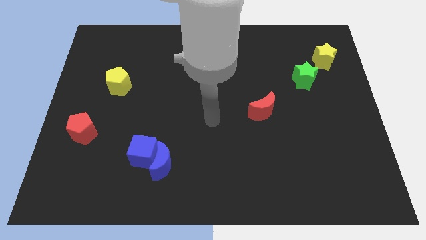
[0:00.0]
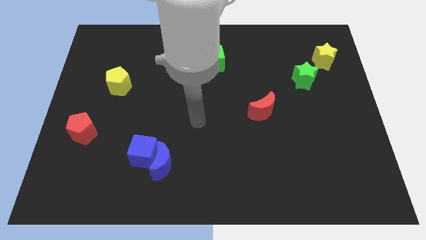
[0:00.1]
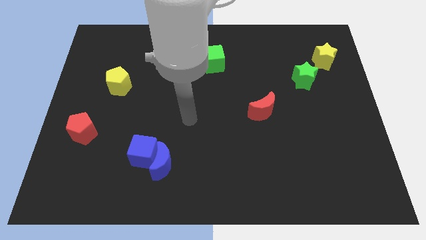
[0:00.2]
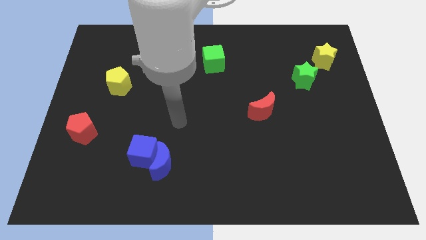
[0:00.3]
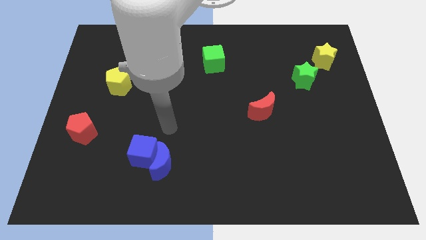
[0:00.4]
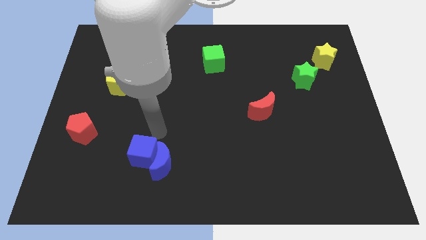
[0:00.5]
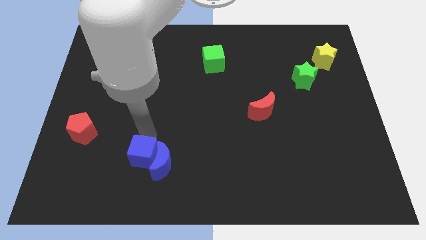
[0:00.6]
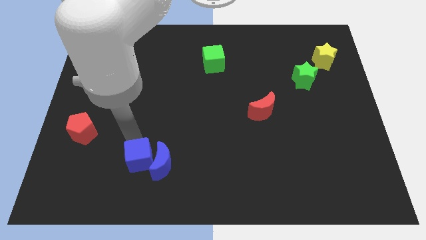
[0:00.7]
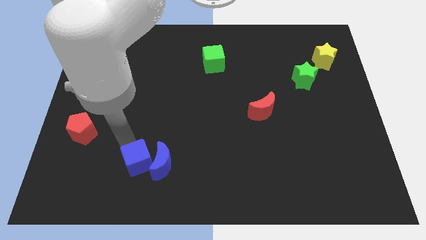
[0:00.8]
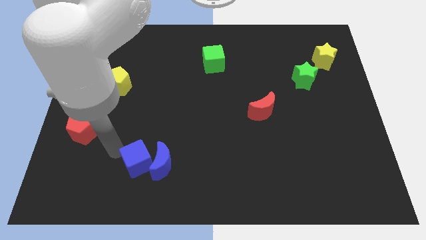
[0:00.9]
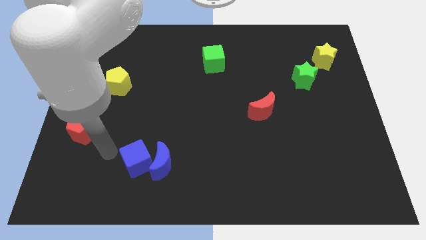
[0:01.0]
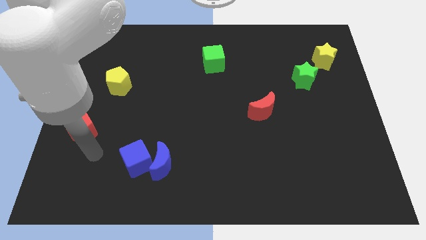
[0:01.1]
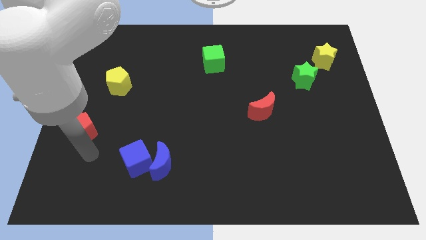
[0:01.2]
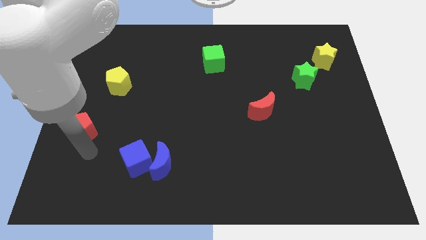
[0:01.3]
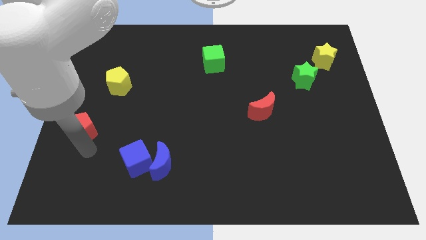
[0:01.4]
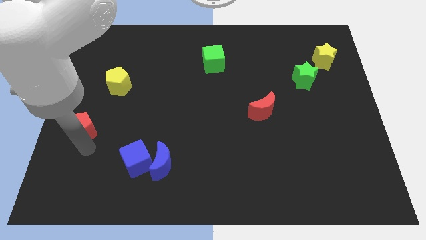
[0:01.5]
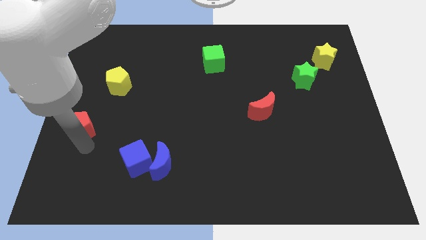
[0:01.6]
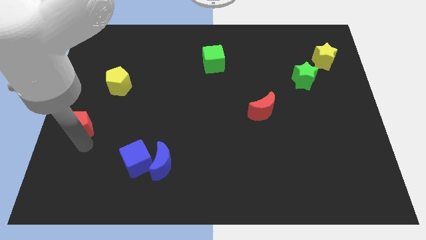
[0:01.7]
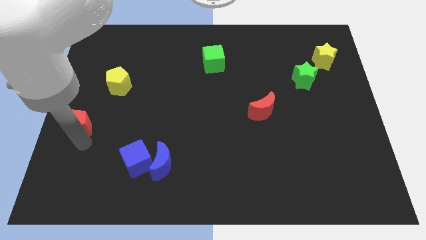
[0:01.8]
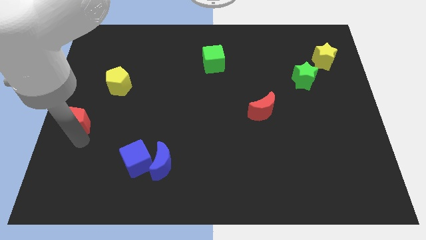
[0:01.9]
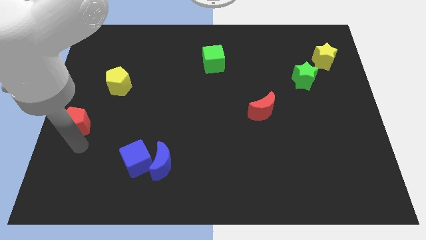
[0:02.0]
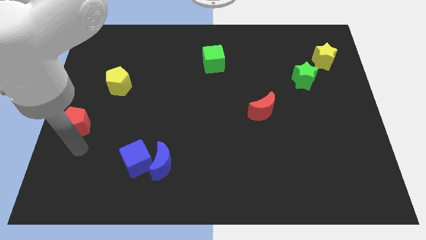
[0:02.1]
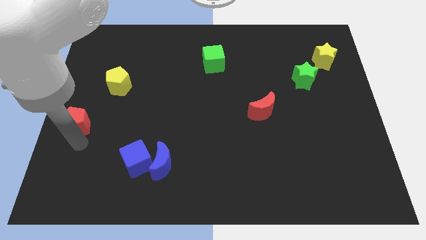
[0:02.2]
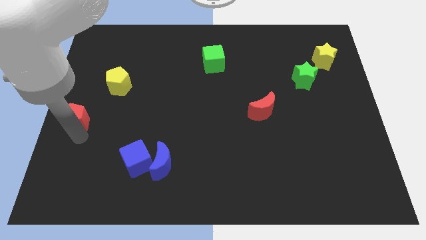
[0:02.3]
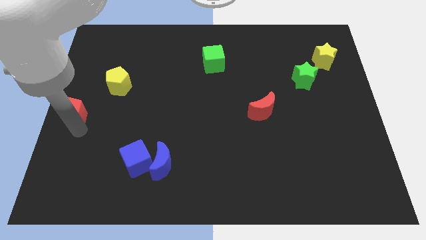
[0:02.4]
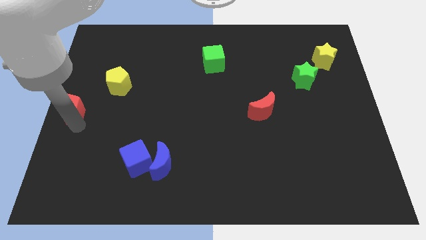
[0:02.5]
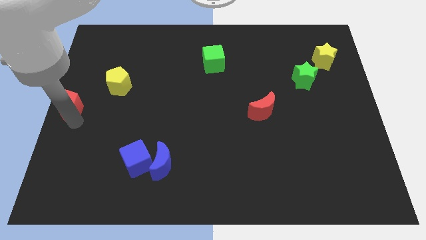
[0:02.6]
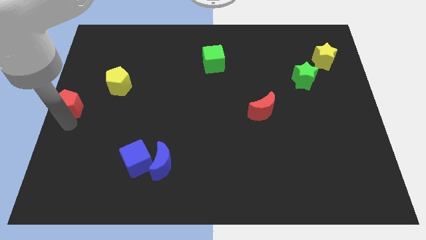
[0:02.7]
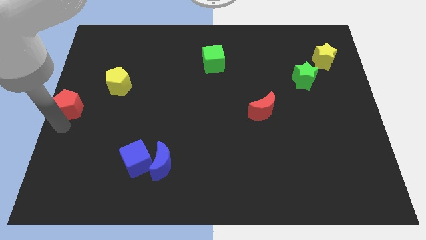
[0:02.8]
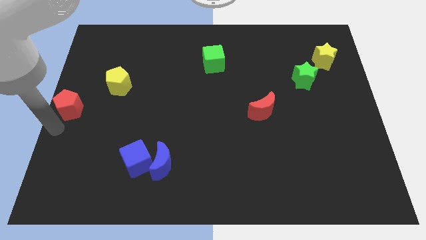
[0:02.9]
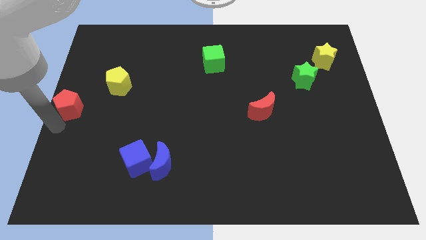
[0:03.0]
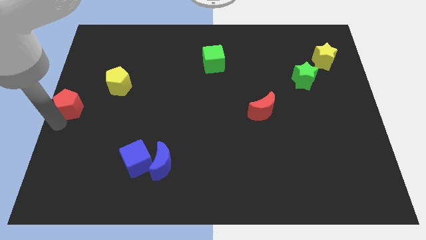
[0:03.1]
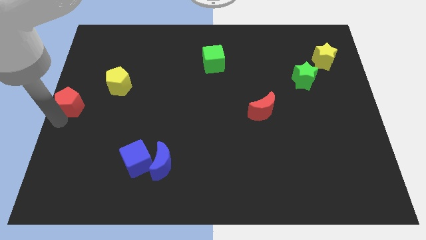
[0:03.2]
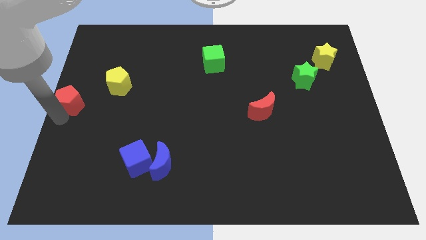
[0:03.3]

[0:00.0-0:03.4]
slightly slide the red pentagon upwards

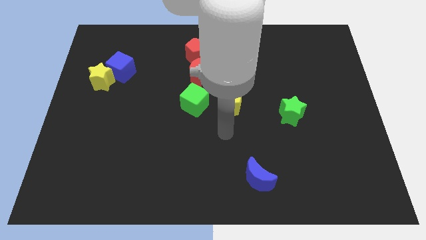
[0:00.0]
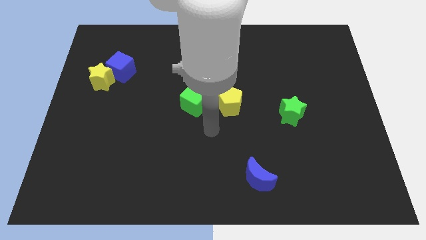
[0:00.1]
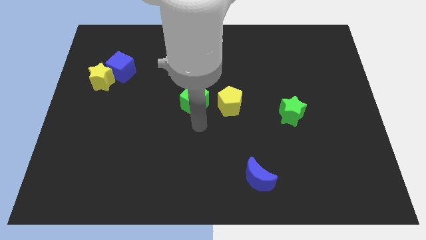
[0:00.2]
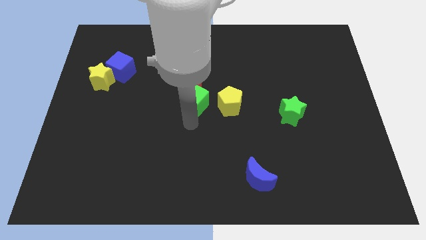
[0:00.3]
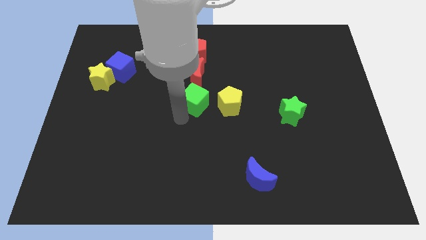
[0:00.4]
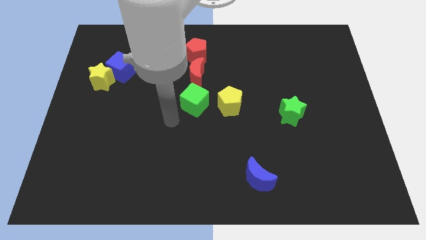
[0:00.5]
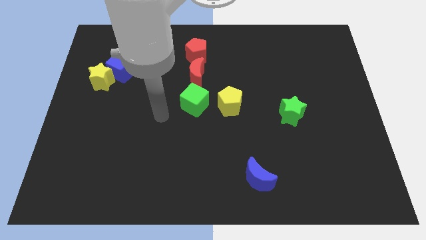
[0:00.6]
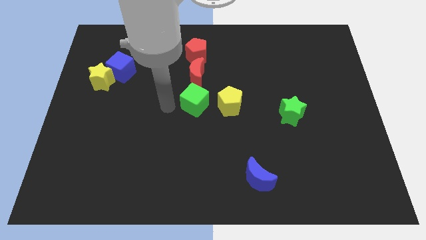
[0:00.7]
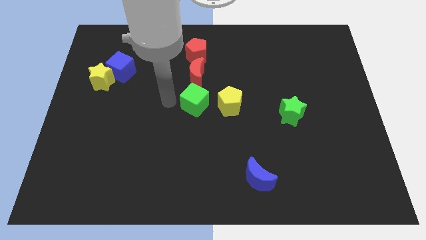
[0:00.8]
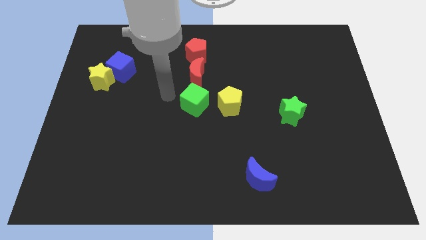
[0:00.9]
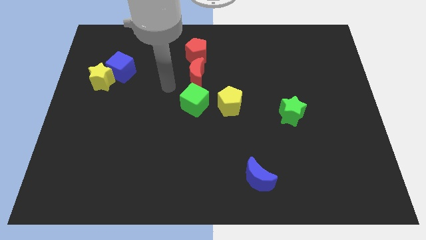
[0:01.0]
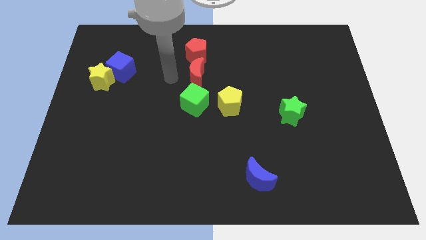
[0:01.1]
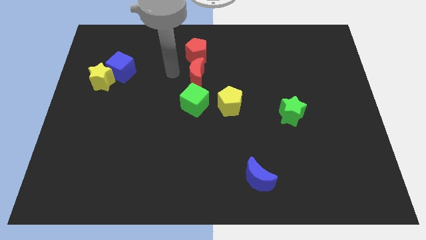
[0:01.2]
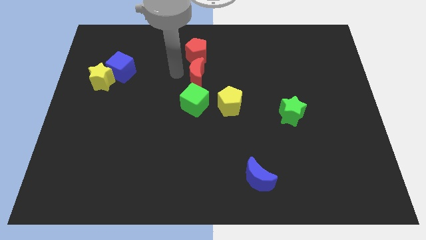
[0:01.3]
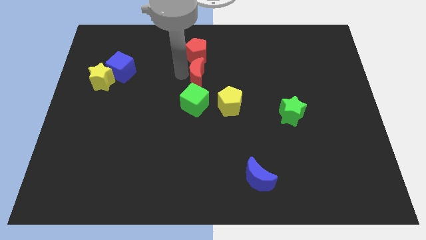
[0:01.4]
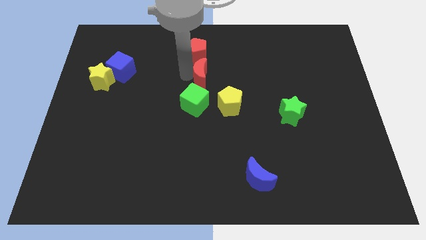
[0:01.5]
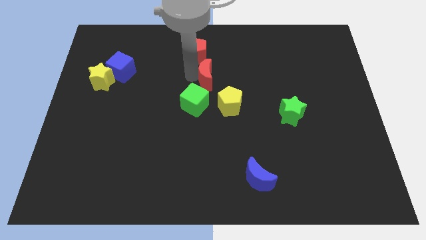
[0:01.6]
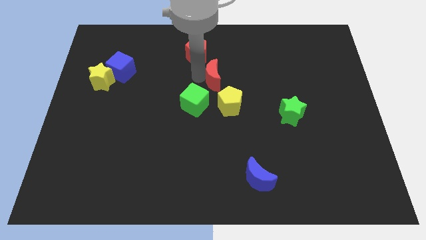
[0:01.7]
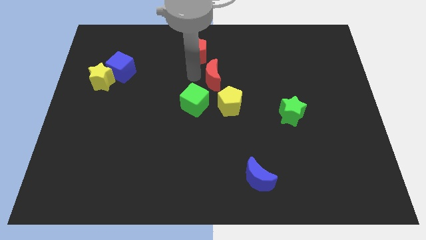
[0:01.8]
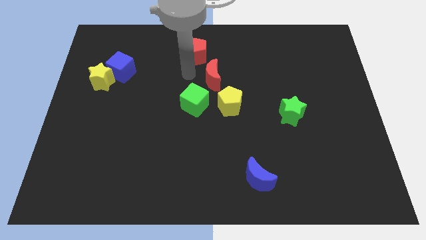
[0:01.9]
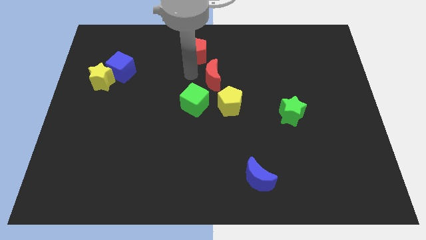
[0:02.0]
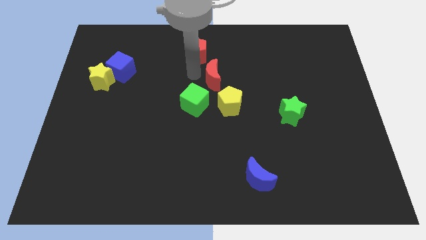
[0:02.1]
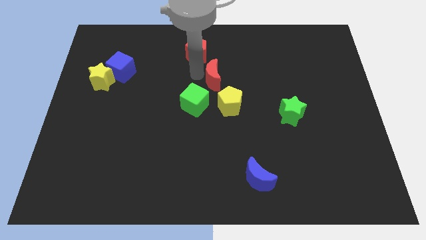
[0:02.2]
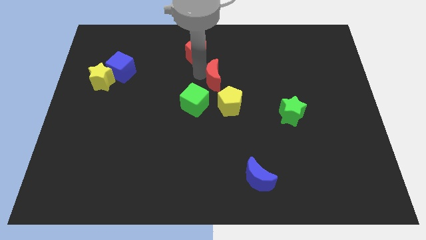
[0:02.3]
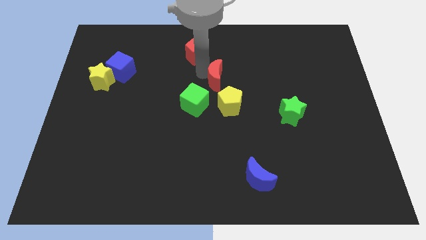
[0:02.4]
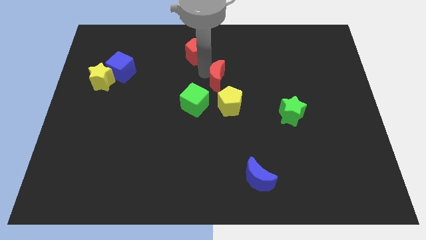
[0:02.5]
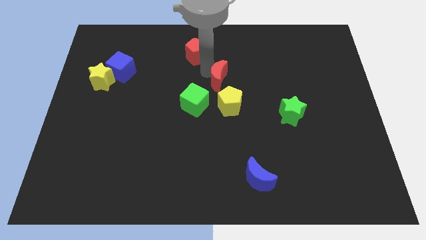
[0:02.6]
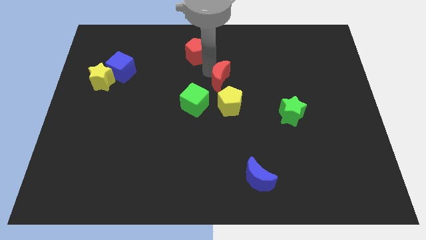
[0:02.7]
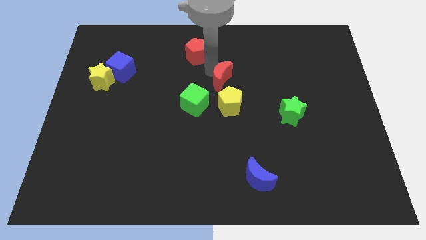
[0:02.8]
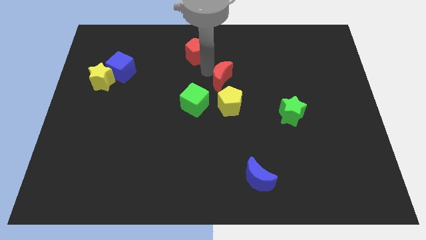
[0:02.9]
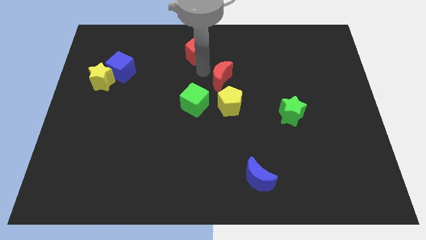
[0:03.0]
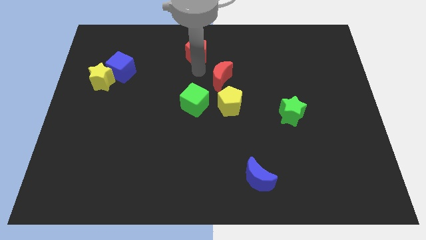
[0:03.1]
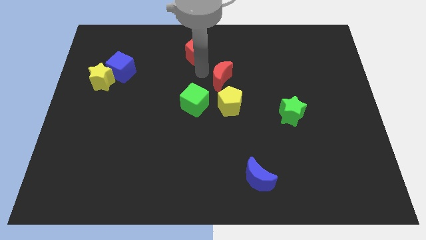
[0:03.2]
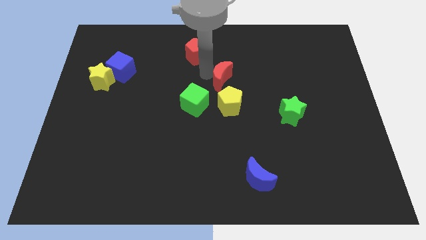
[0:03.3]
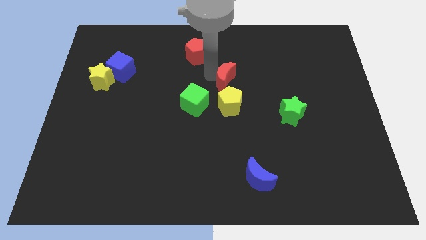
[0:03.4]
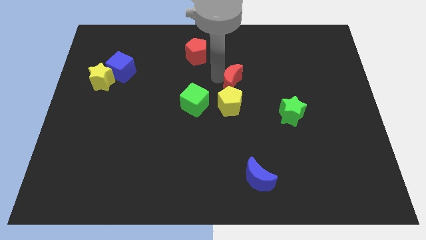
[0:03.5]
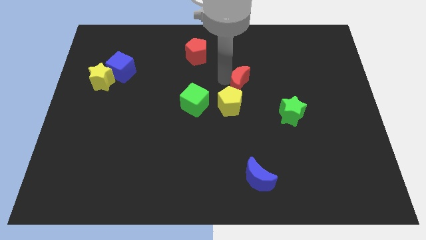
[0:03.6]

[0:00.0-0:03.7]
slightly move the red moon downwards and to the right

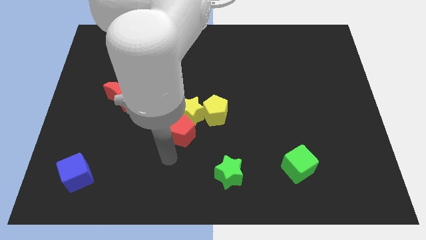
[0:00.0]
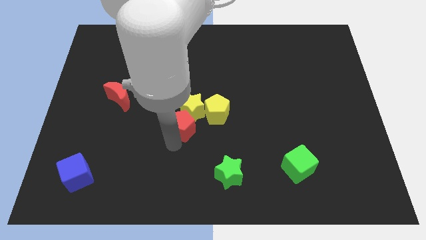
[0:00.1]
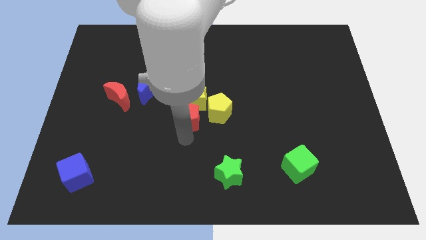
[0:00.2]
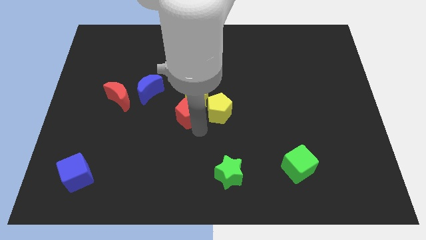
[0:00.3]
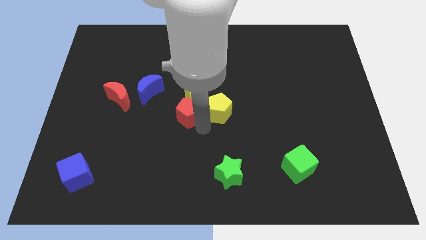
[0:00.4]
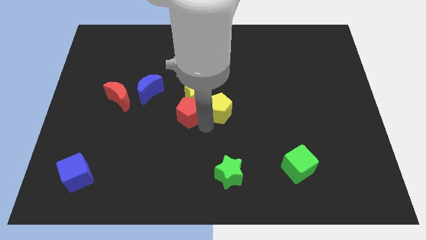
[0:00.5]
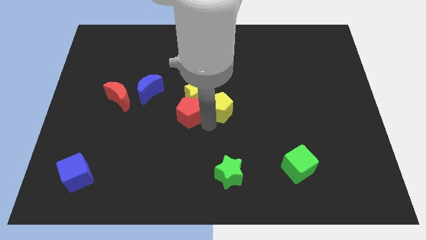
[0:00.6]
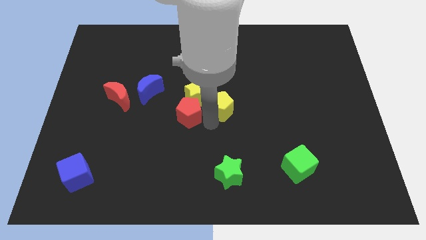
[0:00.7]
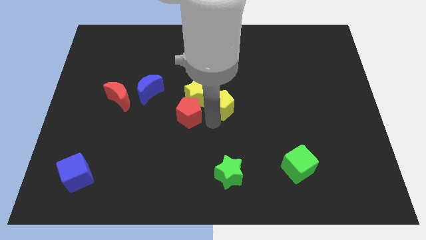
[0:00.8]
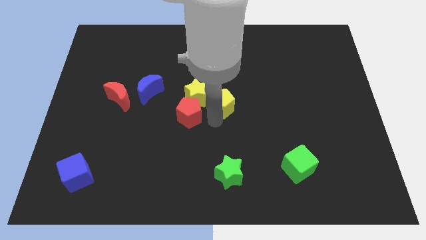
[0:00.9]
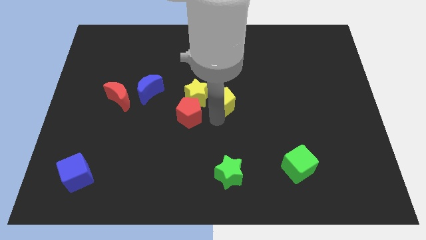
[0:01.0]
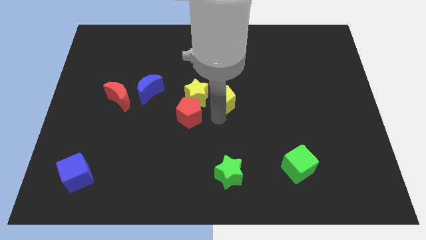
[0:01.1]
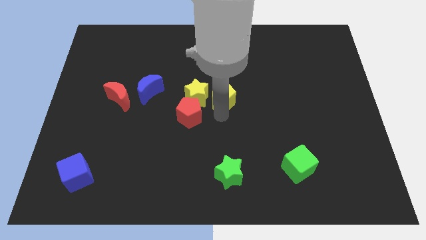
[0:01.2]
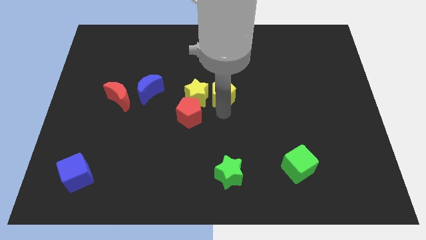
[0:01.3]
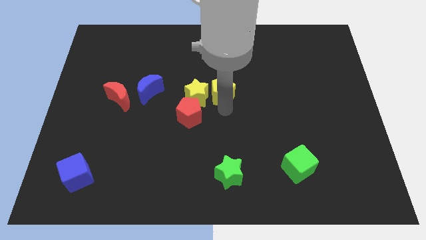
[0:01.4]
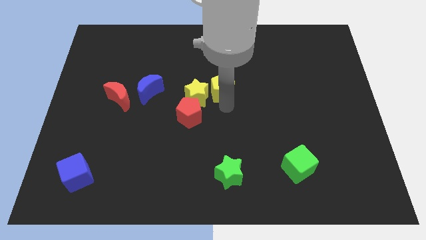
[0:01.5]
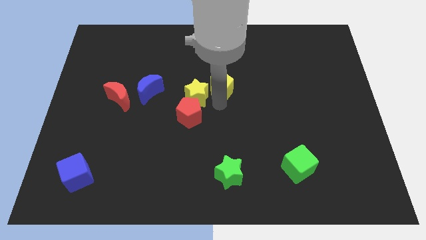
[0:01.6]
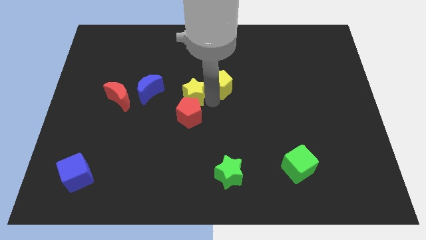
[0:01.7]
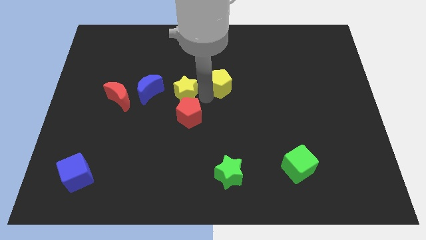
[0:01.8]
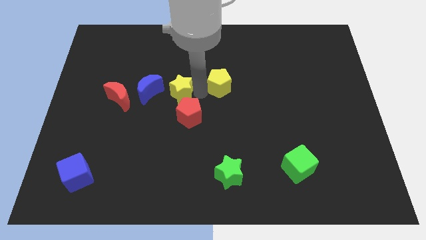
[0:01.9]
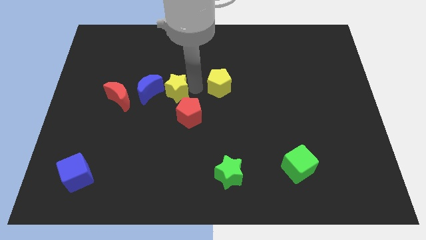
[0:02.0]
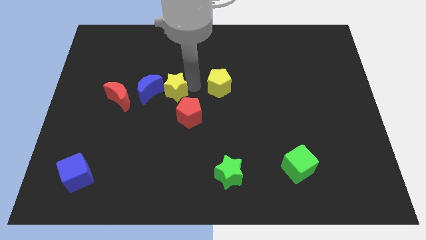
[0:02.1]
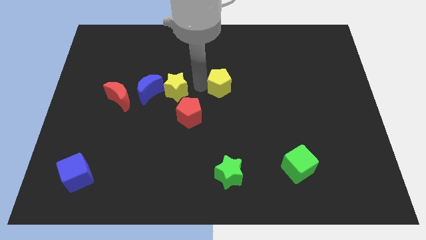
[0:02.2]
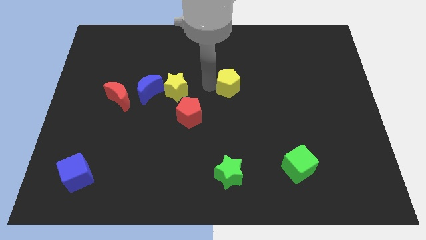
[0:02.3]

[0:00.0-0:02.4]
slightly move the yellow pentagon upwards and to the right diagonally
